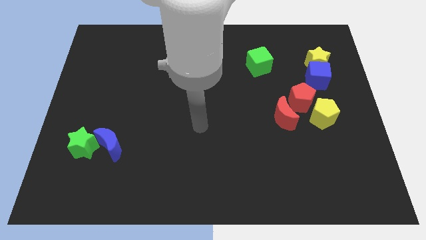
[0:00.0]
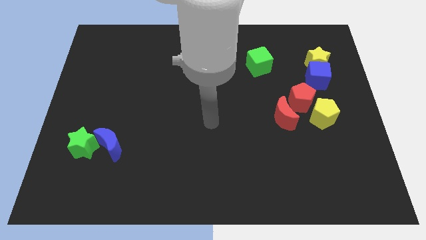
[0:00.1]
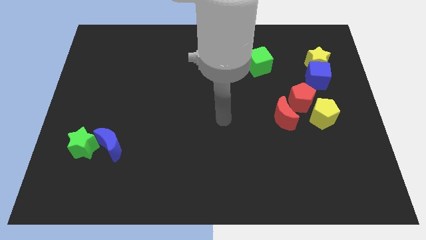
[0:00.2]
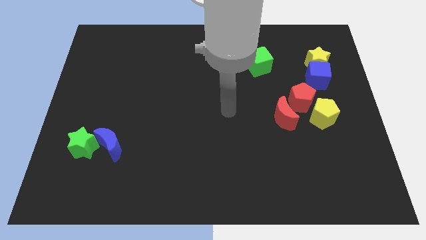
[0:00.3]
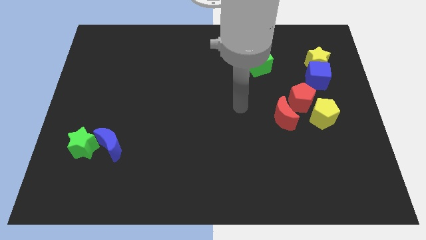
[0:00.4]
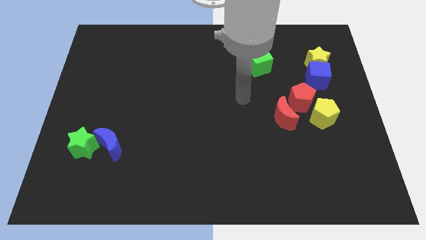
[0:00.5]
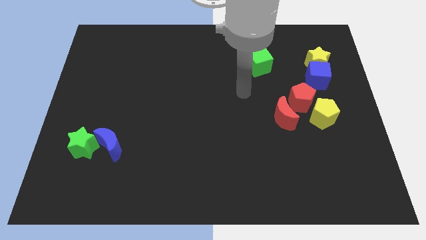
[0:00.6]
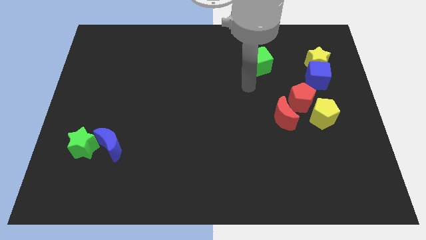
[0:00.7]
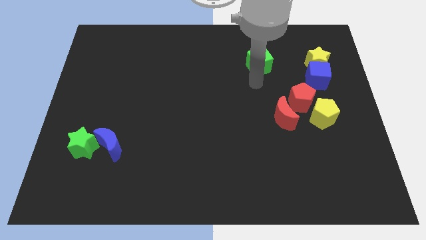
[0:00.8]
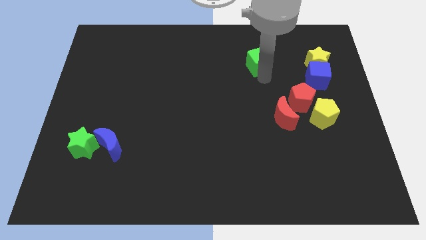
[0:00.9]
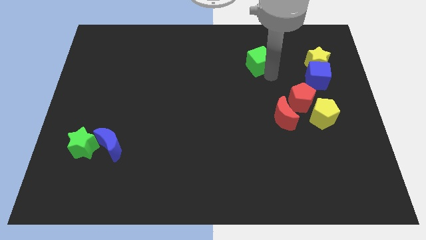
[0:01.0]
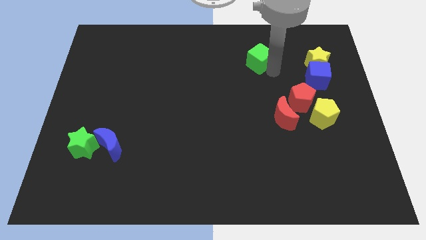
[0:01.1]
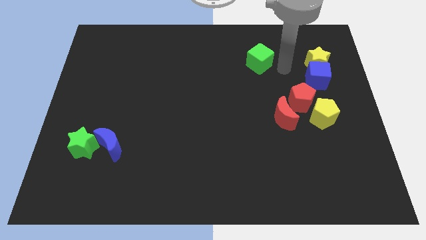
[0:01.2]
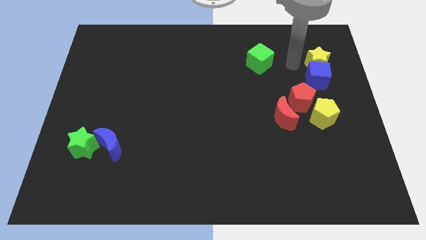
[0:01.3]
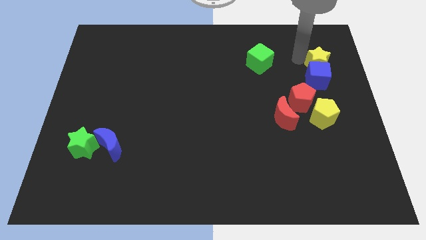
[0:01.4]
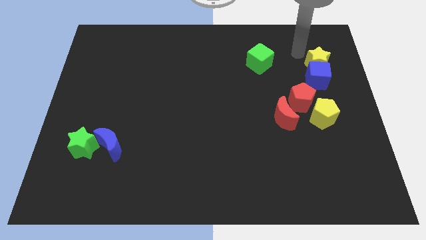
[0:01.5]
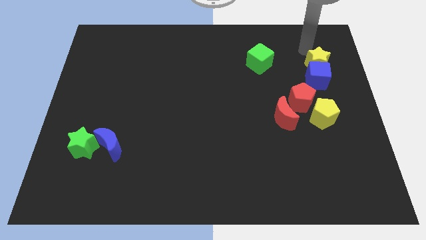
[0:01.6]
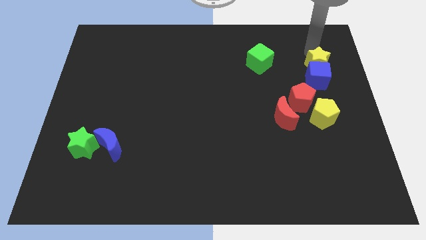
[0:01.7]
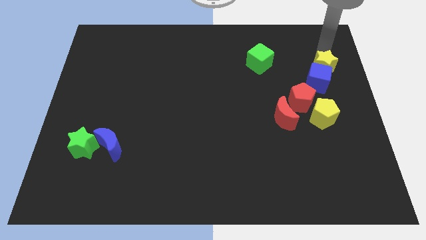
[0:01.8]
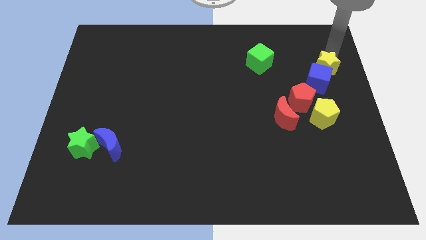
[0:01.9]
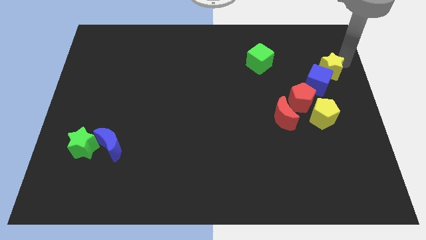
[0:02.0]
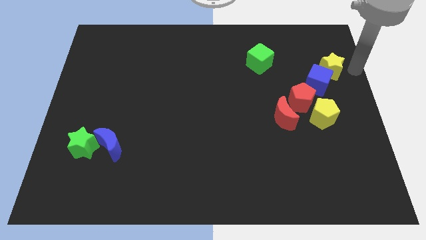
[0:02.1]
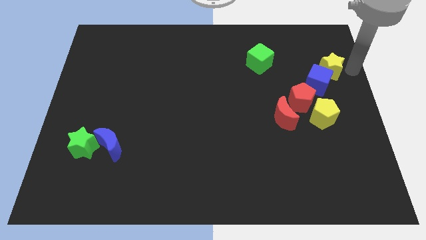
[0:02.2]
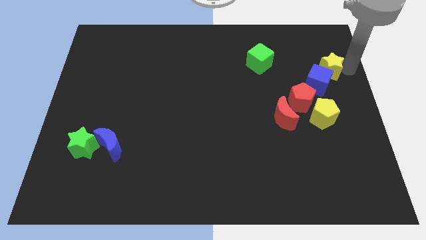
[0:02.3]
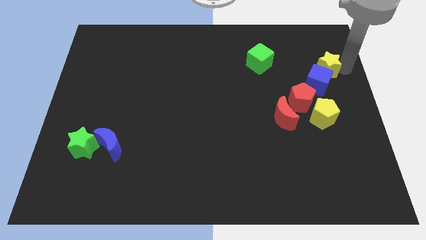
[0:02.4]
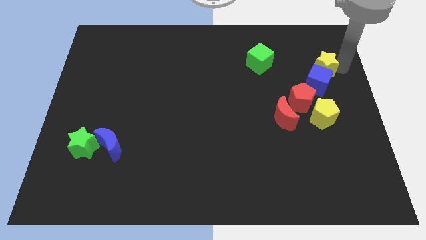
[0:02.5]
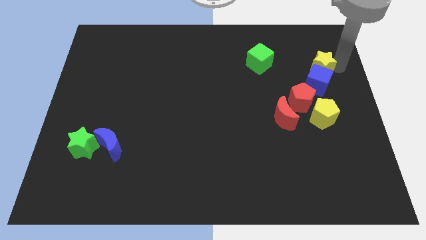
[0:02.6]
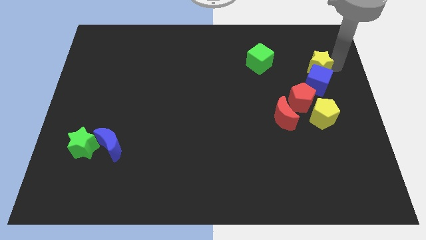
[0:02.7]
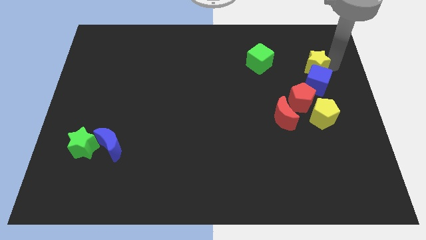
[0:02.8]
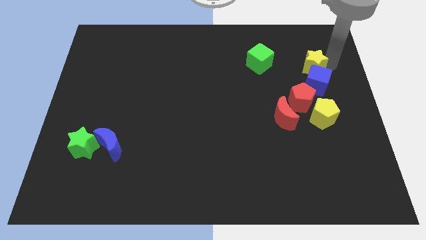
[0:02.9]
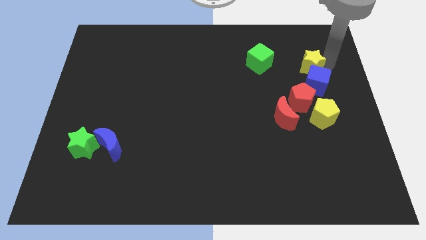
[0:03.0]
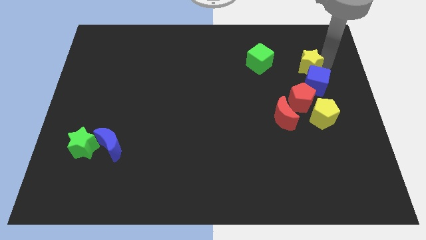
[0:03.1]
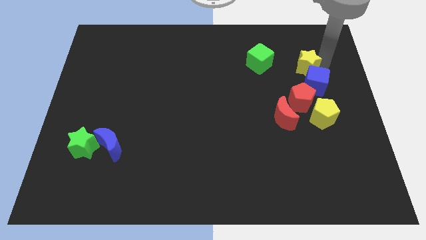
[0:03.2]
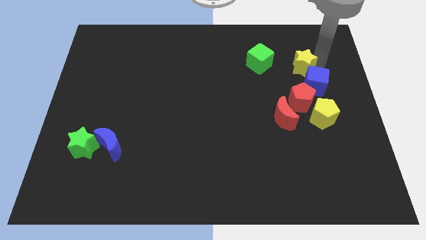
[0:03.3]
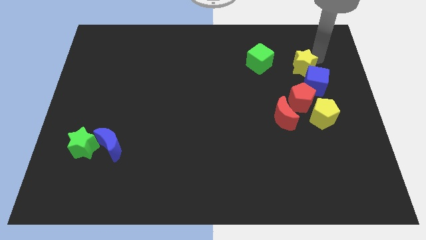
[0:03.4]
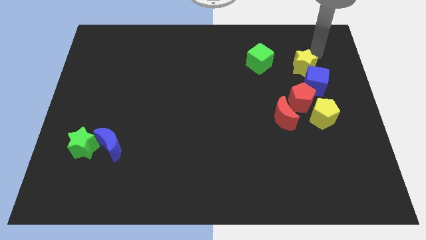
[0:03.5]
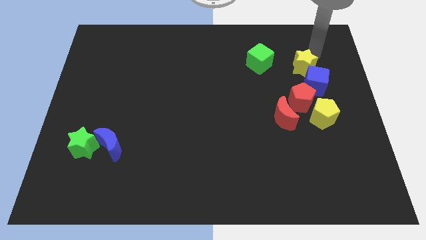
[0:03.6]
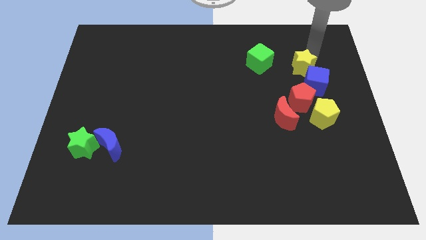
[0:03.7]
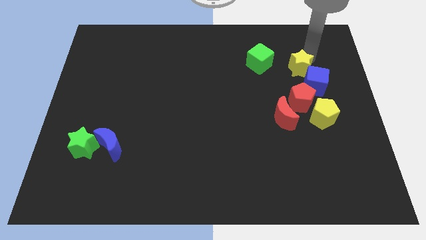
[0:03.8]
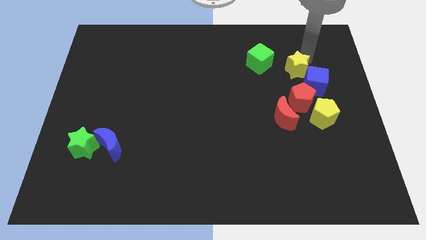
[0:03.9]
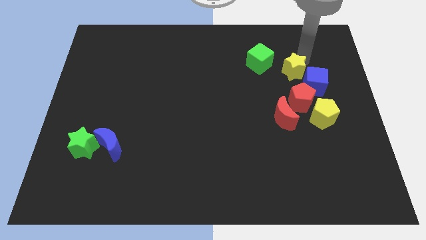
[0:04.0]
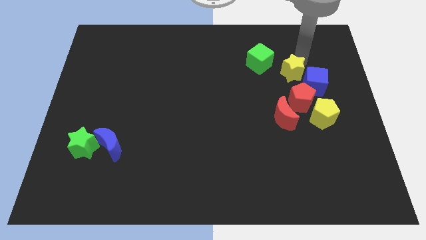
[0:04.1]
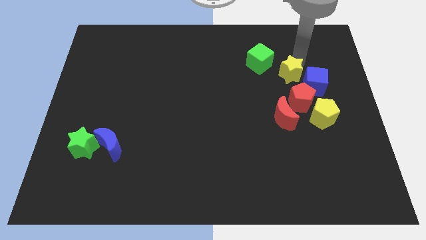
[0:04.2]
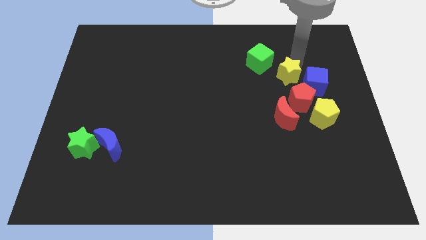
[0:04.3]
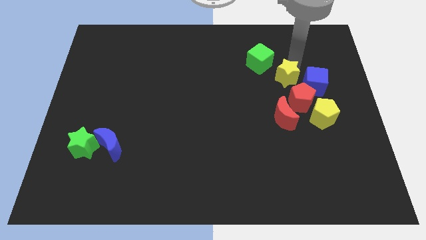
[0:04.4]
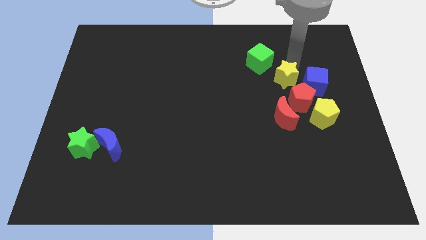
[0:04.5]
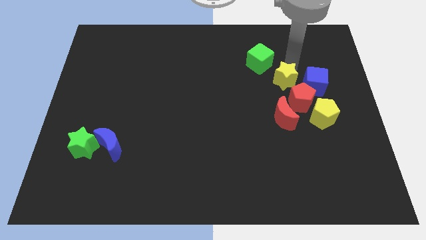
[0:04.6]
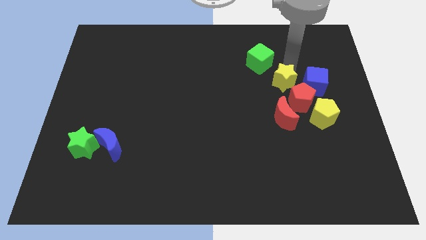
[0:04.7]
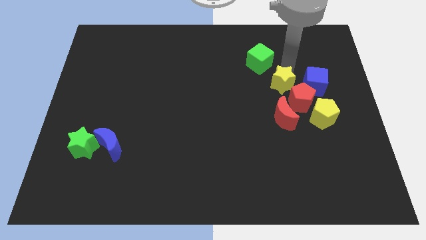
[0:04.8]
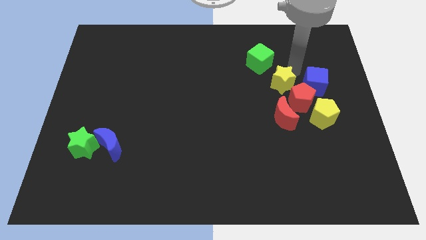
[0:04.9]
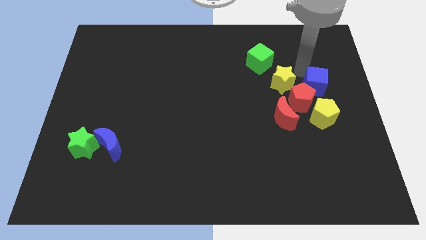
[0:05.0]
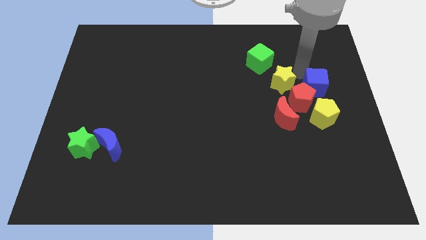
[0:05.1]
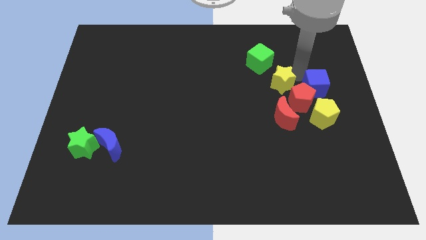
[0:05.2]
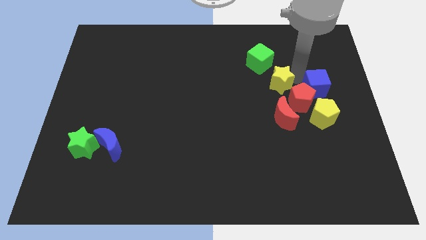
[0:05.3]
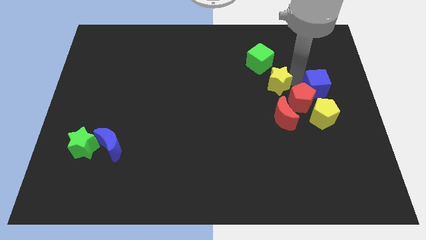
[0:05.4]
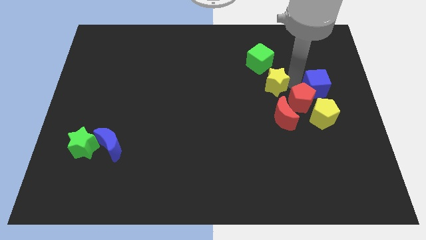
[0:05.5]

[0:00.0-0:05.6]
push the yellow star to the left side of the red pentagon

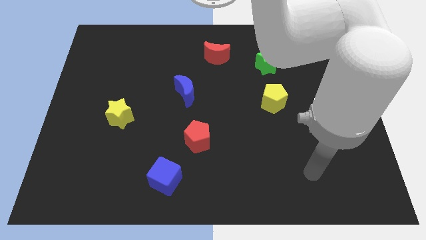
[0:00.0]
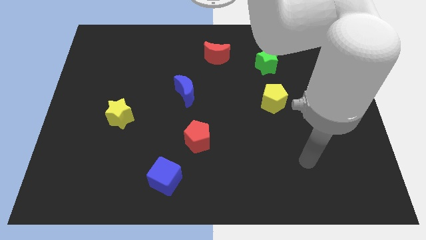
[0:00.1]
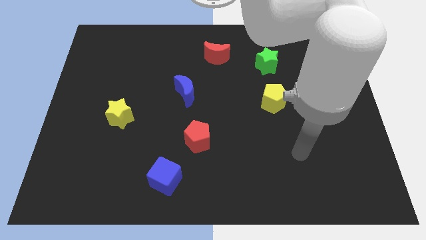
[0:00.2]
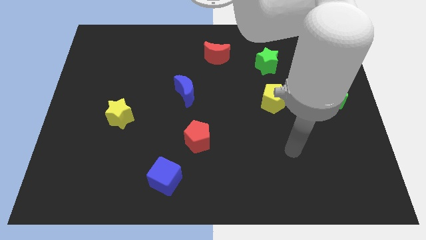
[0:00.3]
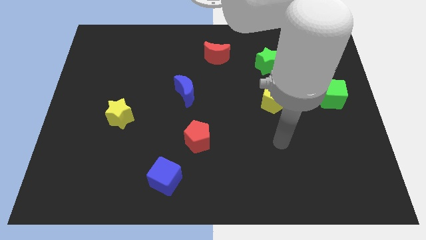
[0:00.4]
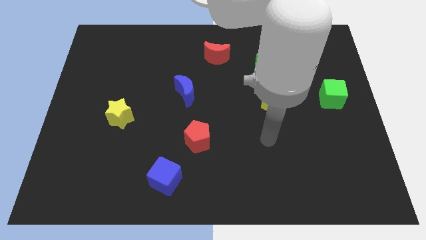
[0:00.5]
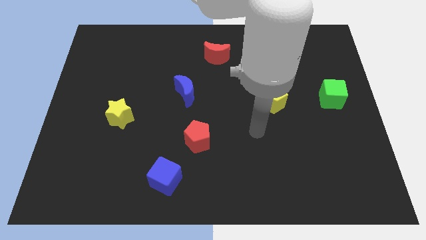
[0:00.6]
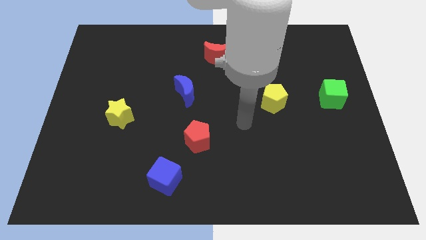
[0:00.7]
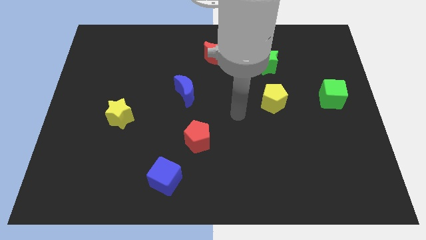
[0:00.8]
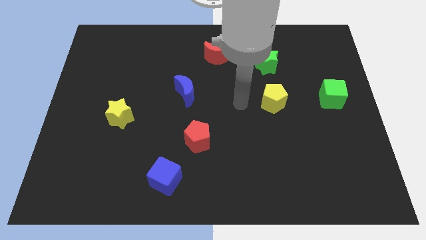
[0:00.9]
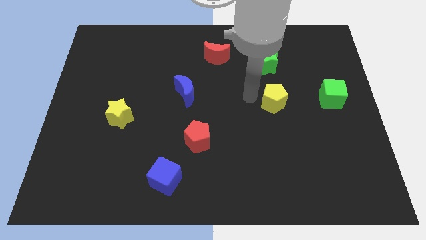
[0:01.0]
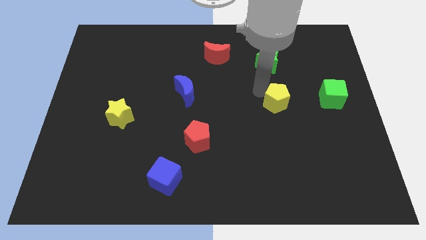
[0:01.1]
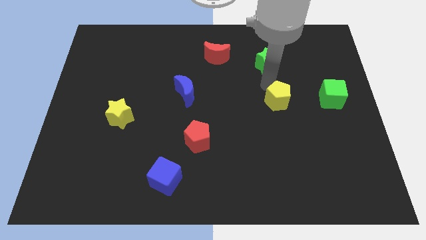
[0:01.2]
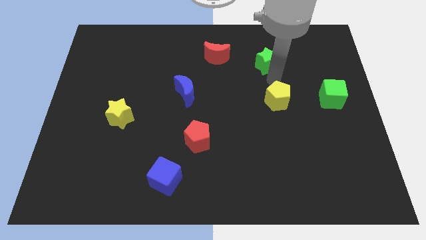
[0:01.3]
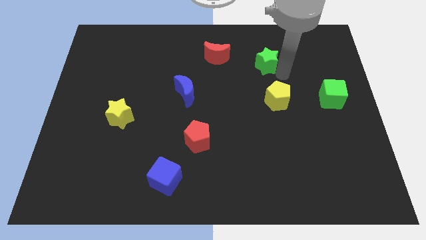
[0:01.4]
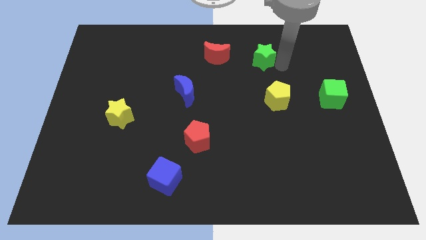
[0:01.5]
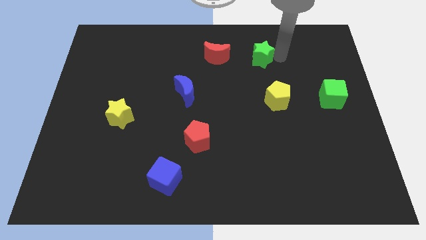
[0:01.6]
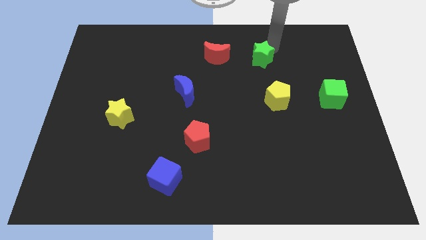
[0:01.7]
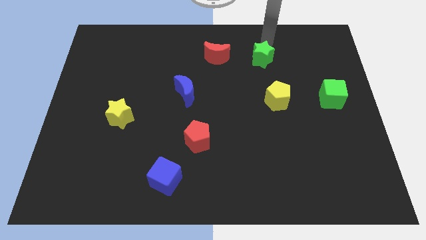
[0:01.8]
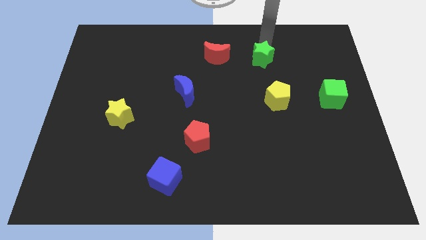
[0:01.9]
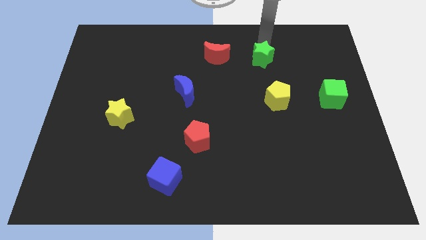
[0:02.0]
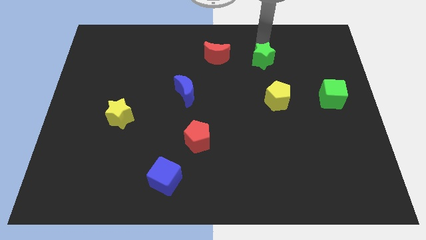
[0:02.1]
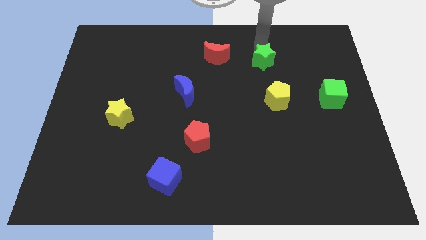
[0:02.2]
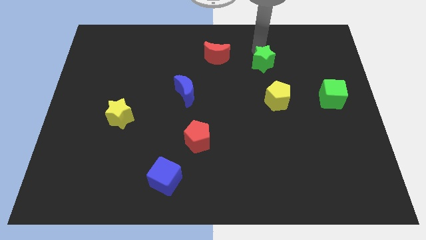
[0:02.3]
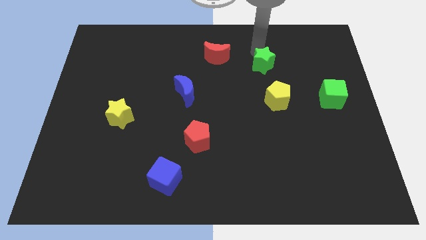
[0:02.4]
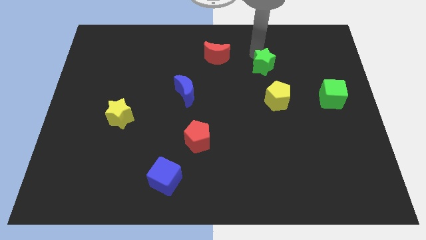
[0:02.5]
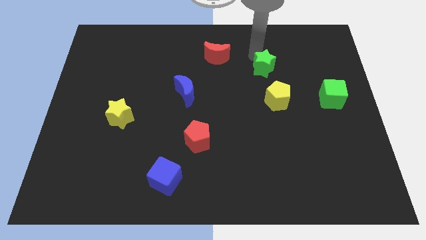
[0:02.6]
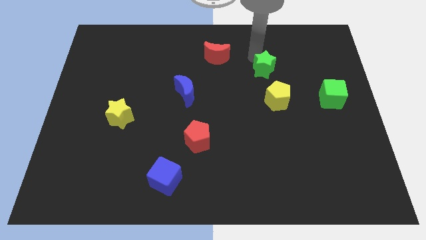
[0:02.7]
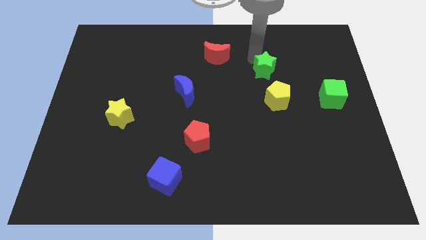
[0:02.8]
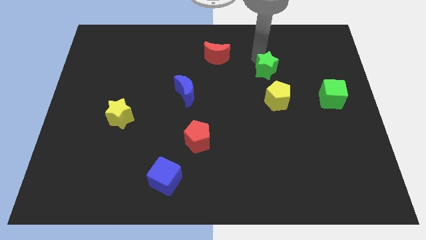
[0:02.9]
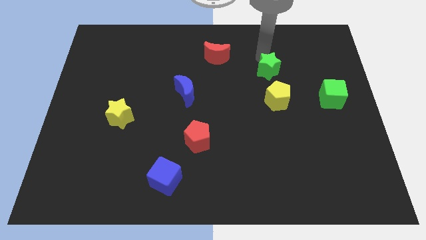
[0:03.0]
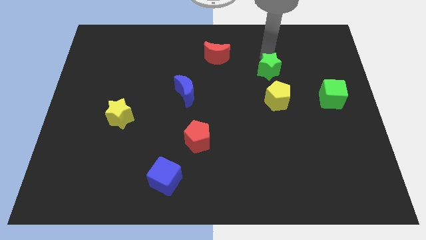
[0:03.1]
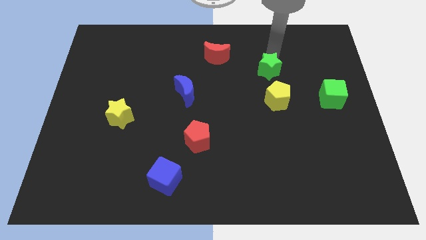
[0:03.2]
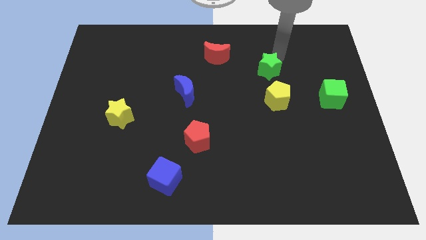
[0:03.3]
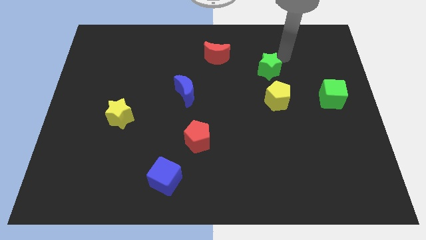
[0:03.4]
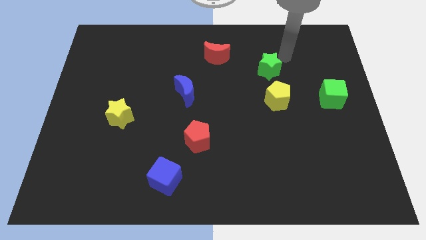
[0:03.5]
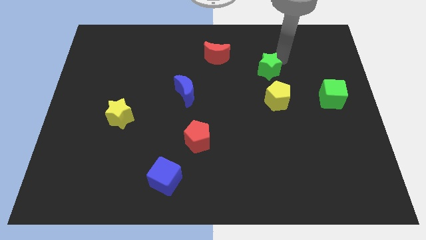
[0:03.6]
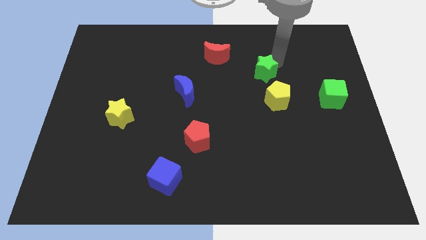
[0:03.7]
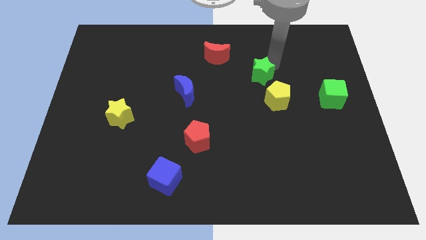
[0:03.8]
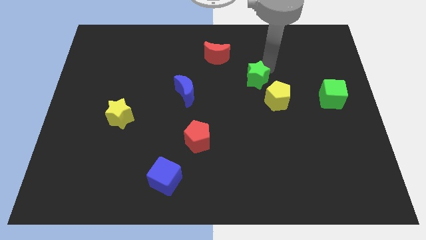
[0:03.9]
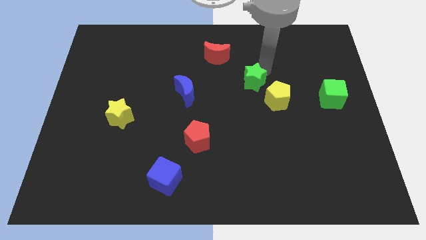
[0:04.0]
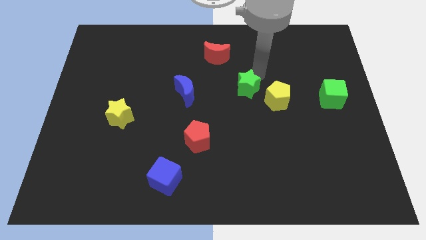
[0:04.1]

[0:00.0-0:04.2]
push the green star to the left of the yellow pentagon
